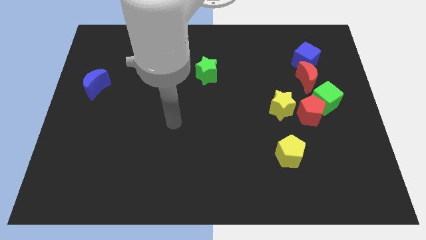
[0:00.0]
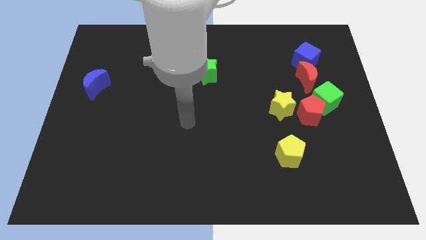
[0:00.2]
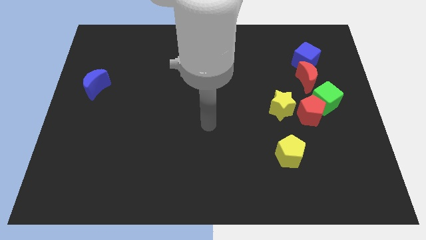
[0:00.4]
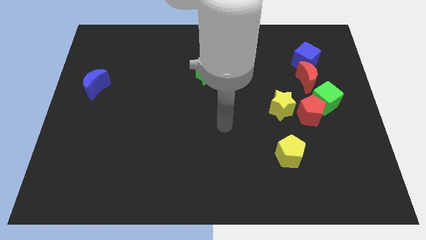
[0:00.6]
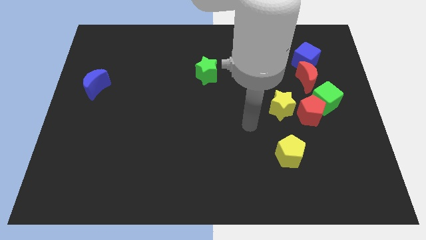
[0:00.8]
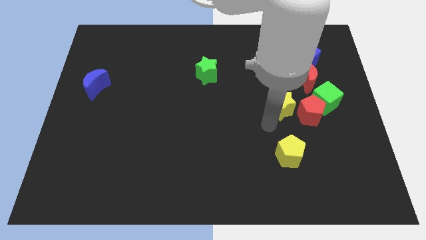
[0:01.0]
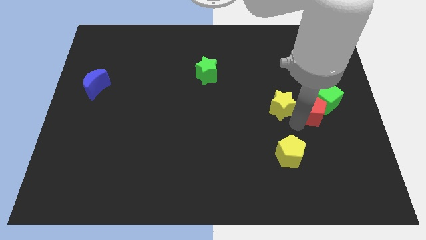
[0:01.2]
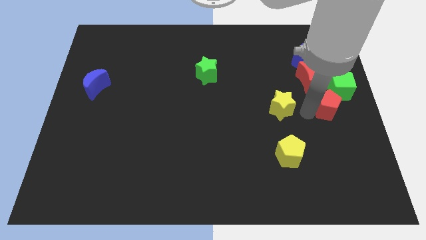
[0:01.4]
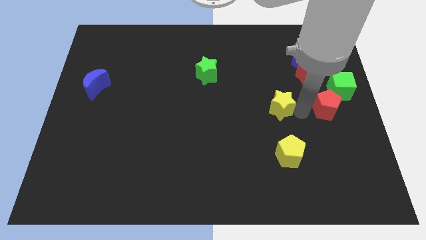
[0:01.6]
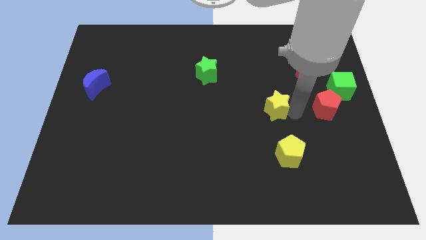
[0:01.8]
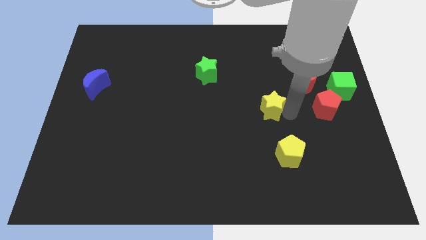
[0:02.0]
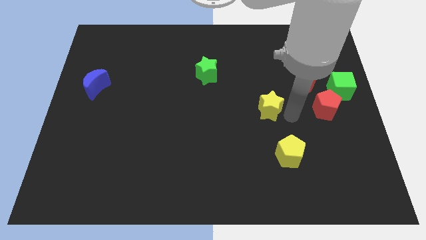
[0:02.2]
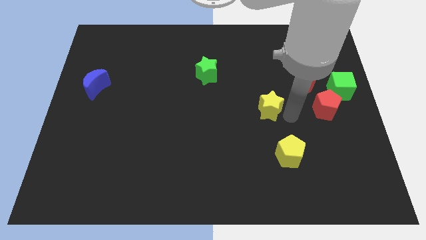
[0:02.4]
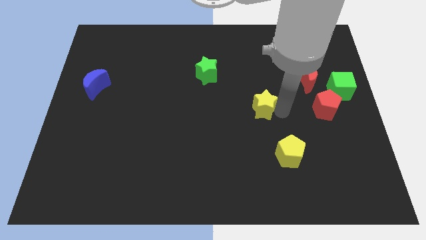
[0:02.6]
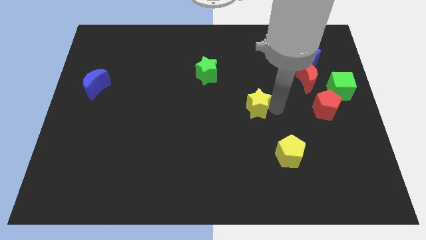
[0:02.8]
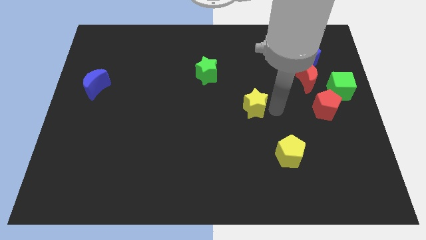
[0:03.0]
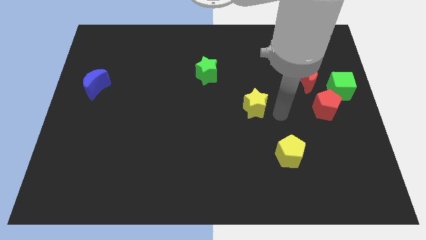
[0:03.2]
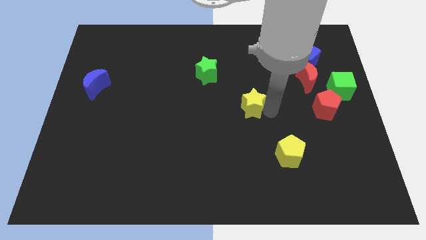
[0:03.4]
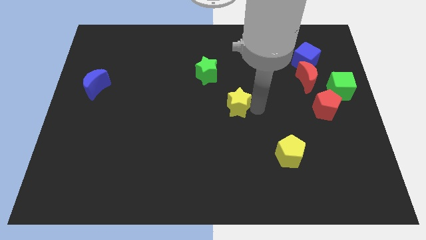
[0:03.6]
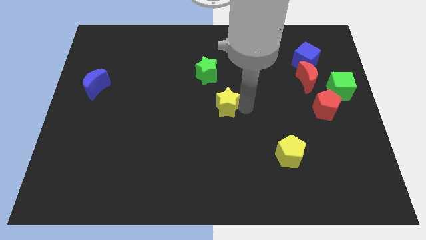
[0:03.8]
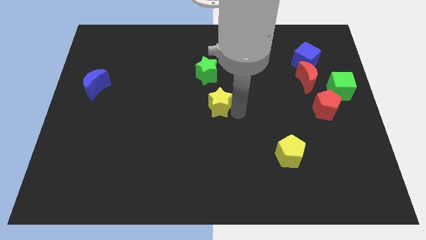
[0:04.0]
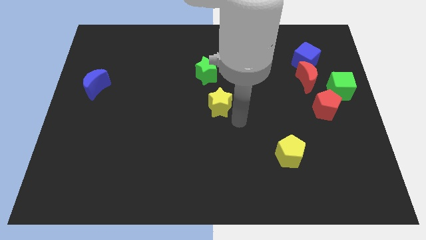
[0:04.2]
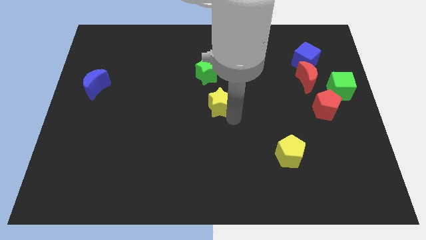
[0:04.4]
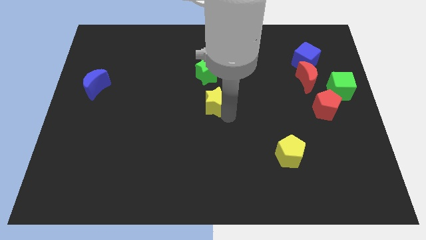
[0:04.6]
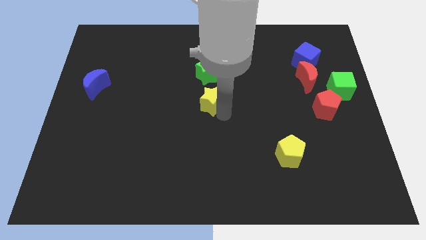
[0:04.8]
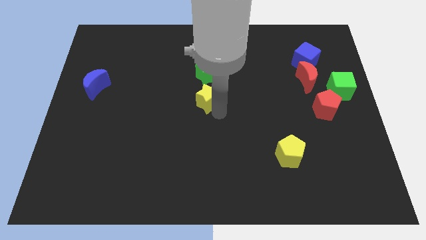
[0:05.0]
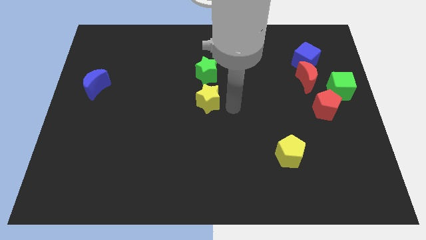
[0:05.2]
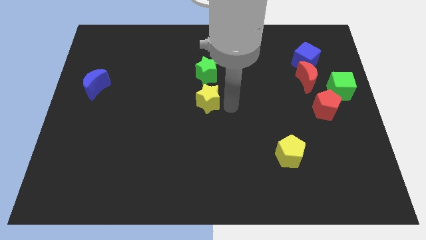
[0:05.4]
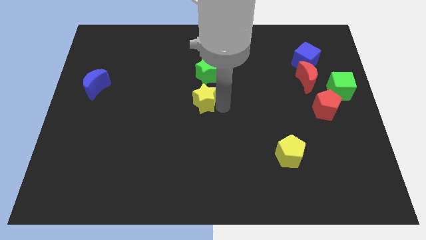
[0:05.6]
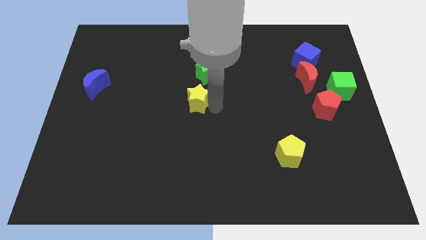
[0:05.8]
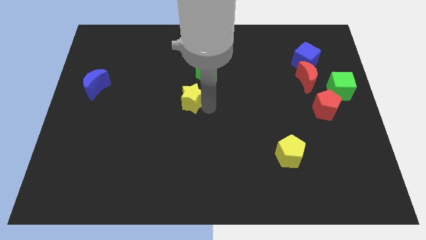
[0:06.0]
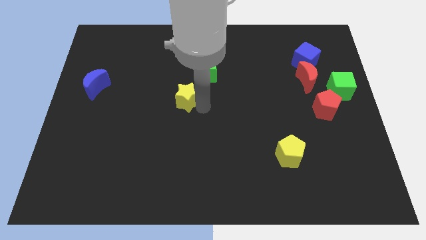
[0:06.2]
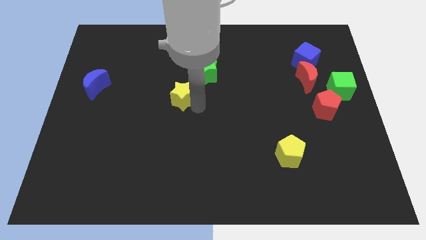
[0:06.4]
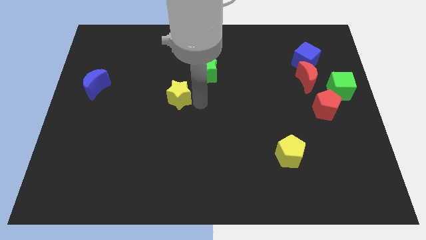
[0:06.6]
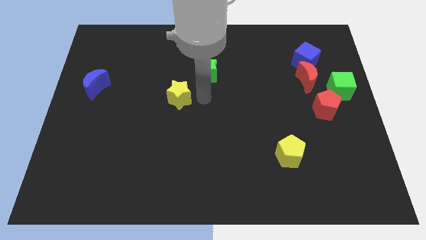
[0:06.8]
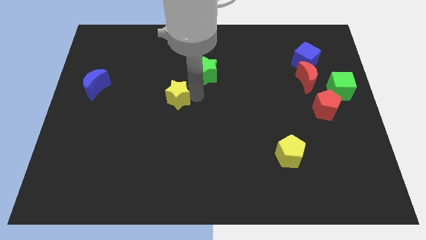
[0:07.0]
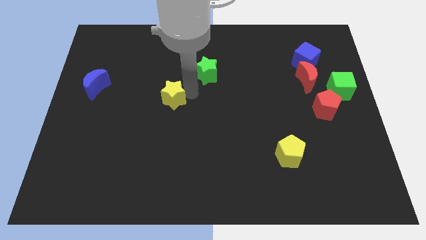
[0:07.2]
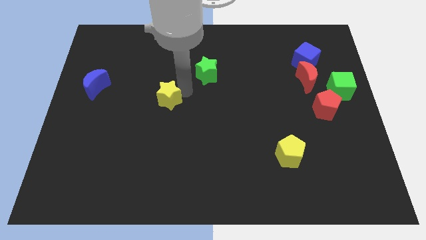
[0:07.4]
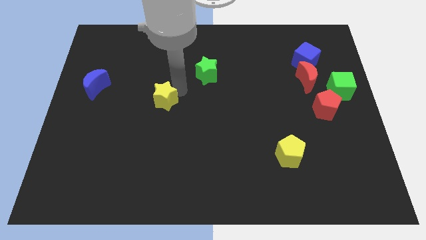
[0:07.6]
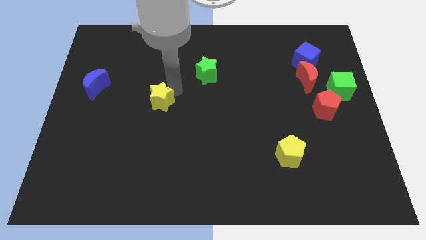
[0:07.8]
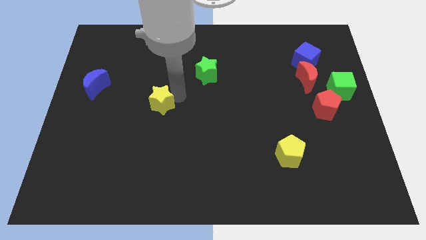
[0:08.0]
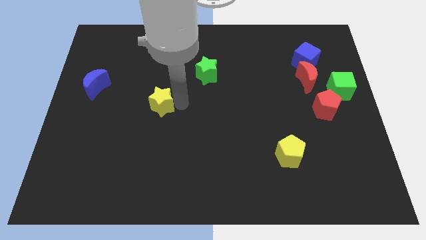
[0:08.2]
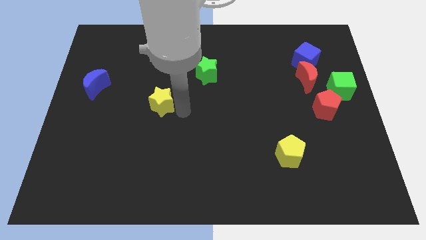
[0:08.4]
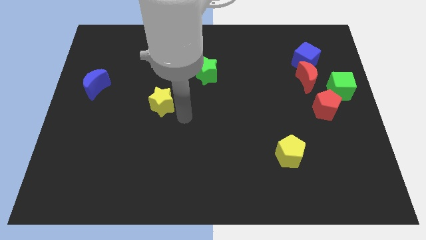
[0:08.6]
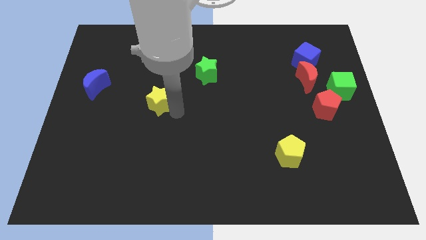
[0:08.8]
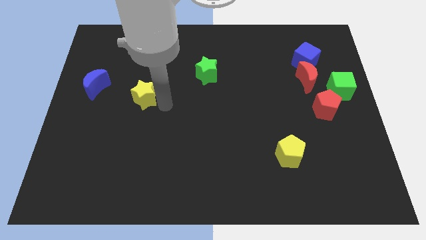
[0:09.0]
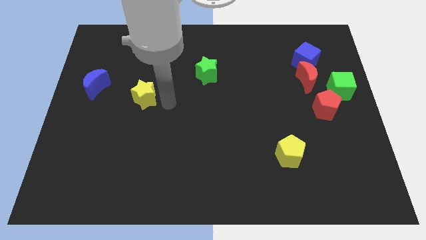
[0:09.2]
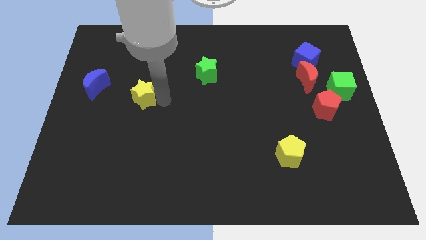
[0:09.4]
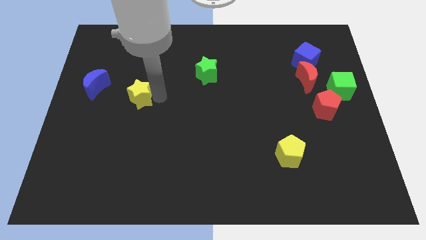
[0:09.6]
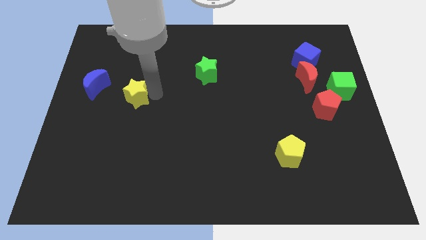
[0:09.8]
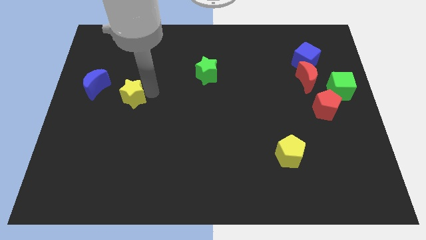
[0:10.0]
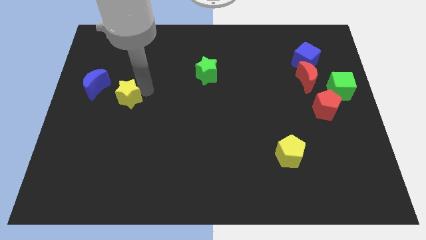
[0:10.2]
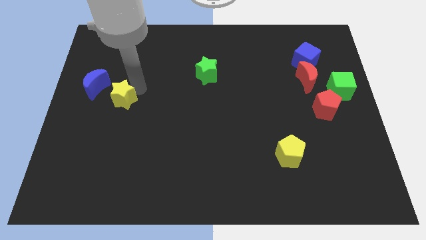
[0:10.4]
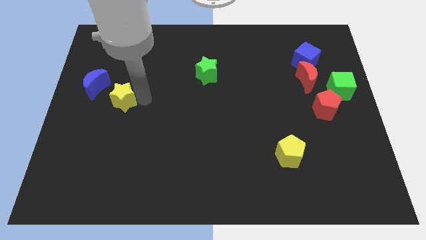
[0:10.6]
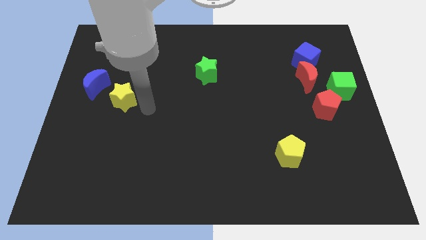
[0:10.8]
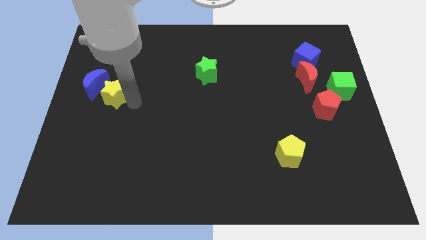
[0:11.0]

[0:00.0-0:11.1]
move the yellow star to the blue moon

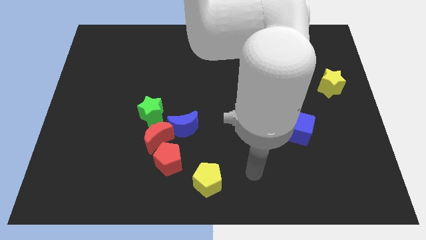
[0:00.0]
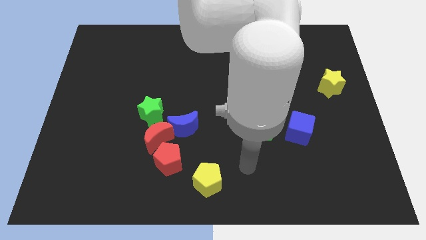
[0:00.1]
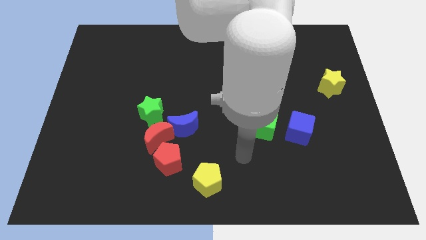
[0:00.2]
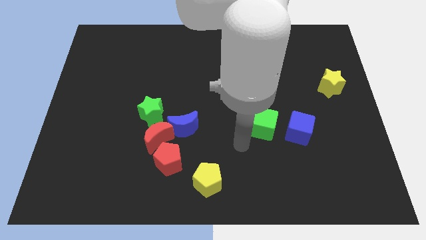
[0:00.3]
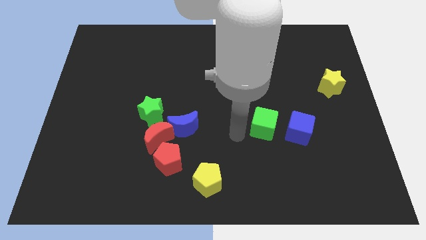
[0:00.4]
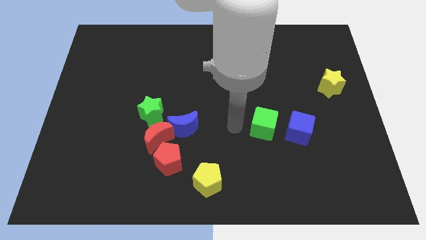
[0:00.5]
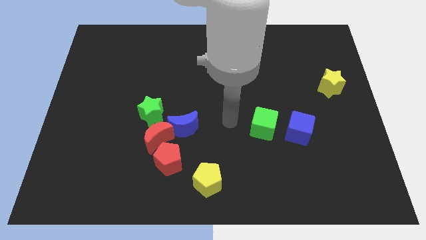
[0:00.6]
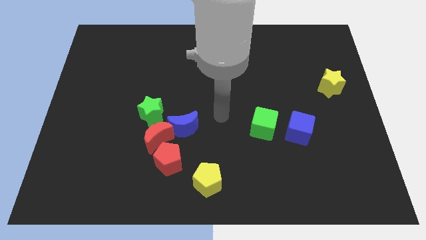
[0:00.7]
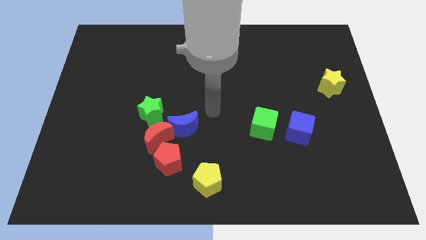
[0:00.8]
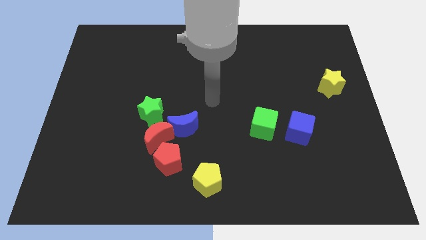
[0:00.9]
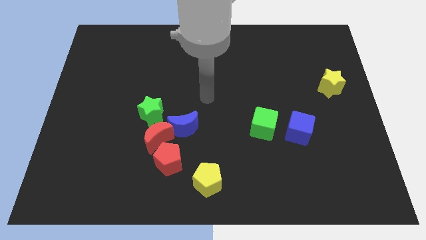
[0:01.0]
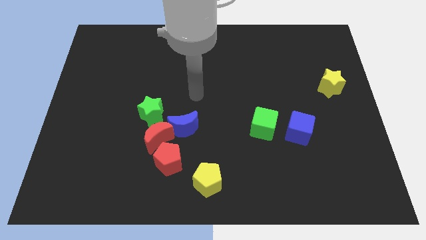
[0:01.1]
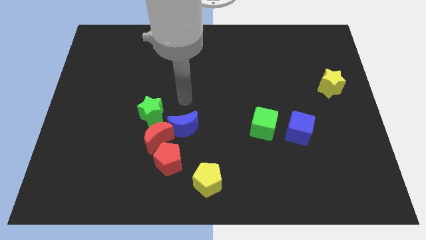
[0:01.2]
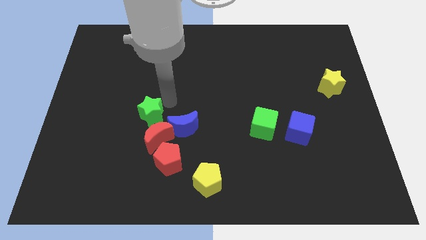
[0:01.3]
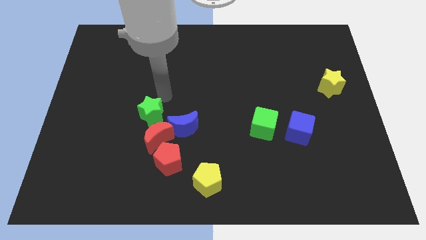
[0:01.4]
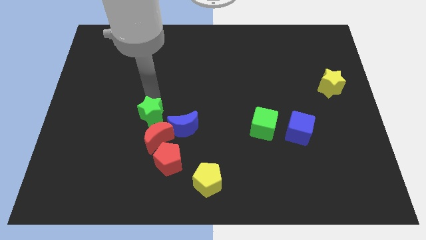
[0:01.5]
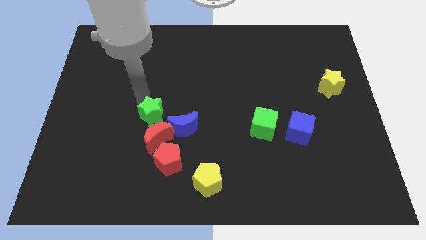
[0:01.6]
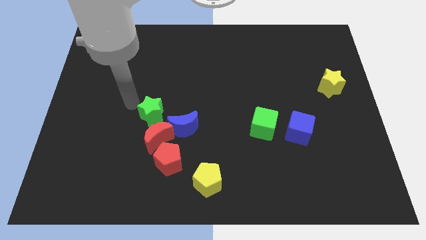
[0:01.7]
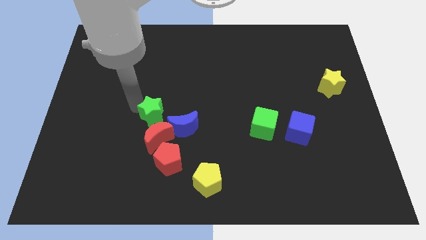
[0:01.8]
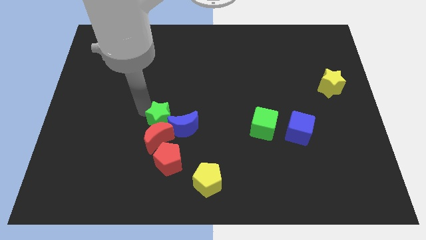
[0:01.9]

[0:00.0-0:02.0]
put the green star towards the blue moon
